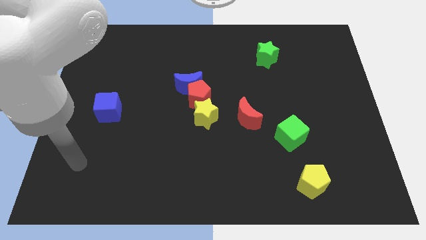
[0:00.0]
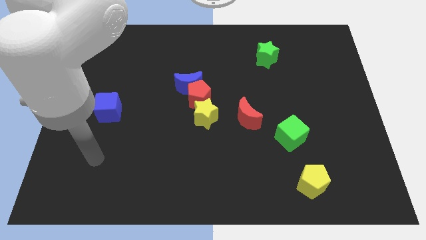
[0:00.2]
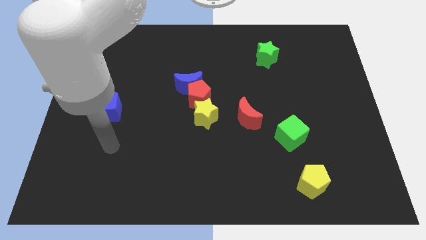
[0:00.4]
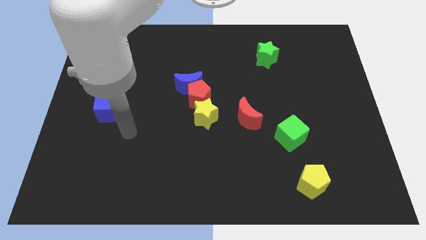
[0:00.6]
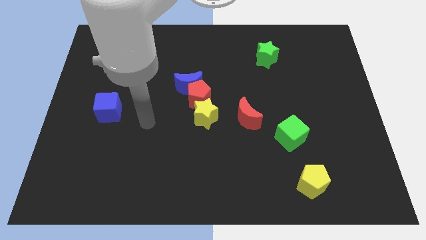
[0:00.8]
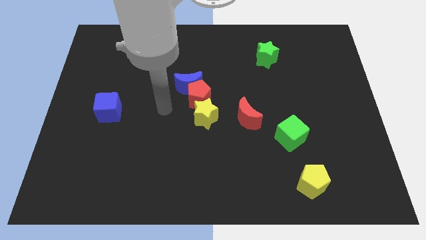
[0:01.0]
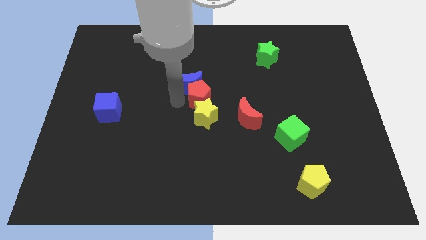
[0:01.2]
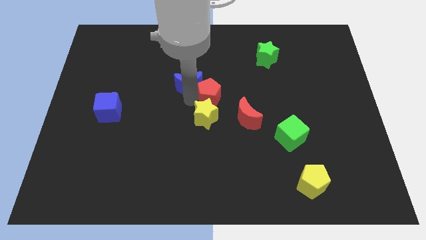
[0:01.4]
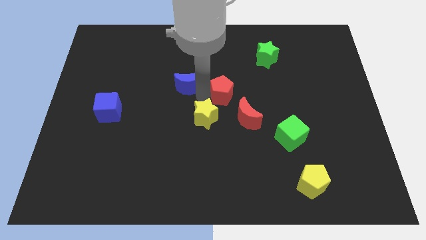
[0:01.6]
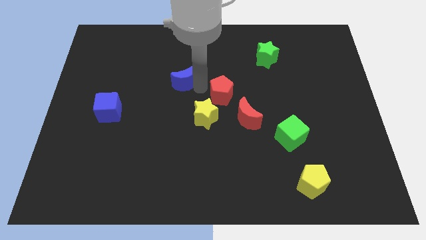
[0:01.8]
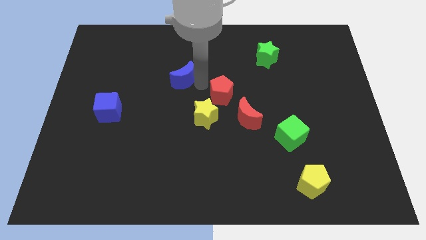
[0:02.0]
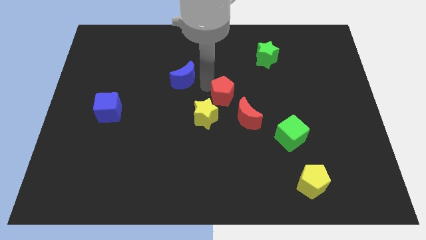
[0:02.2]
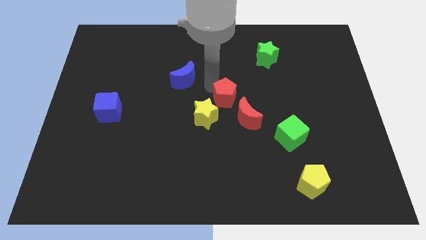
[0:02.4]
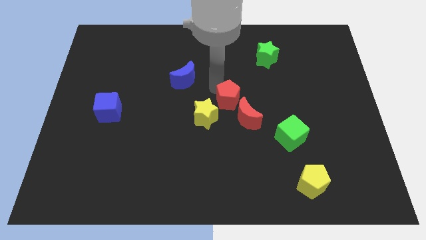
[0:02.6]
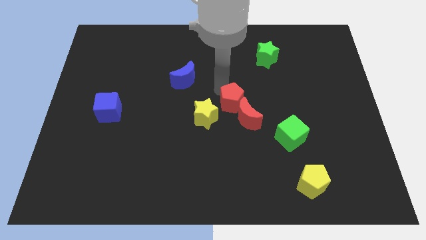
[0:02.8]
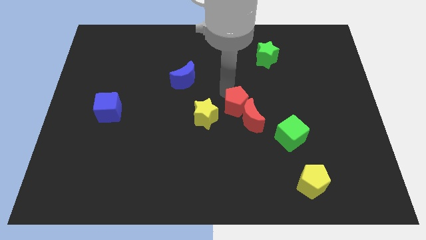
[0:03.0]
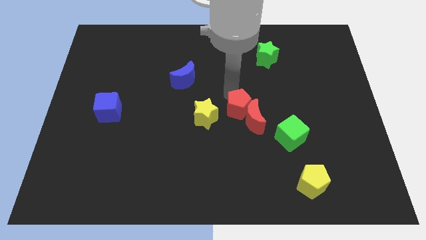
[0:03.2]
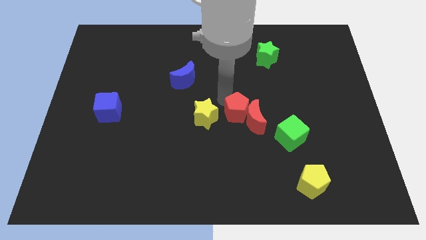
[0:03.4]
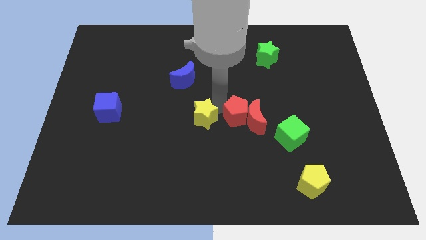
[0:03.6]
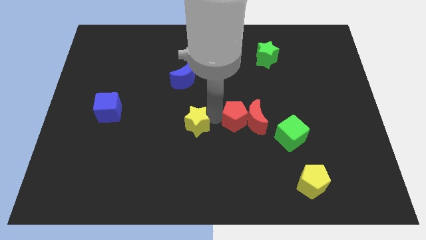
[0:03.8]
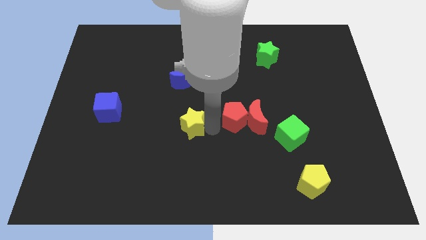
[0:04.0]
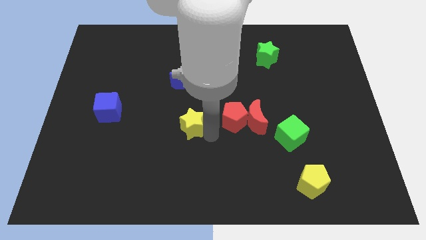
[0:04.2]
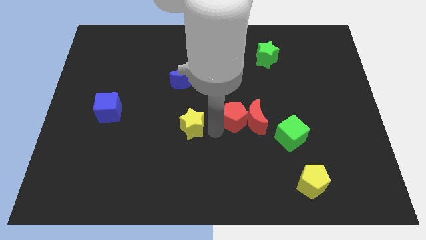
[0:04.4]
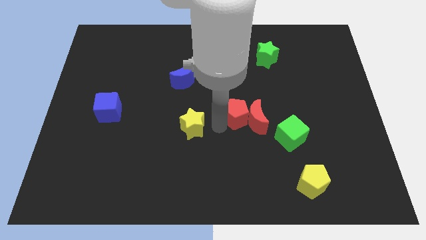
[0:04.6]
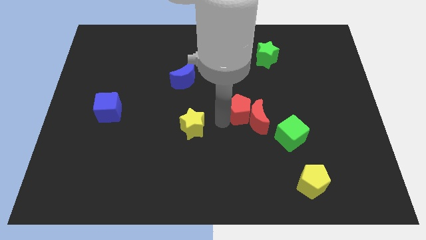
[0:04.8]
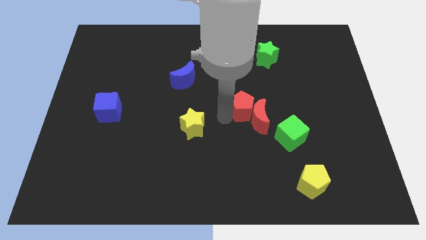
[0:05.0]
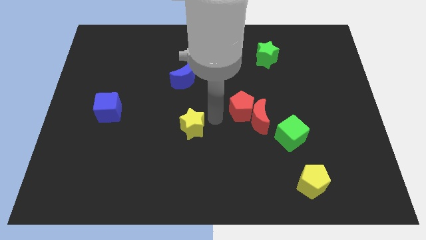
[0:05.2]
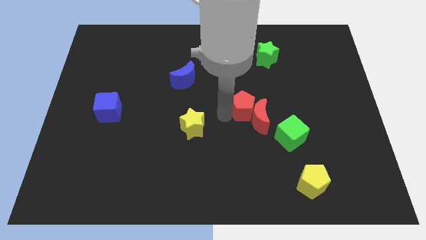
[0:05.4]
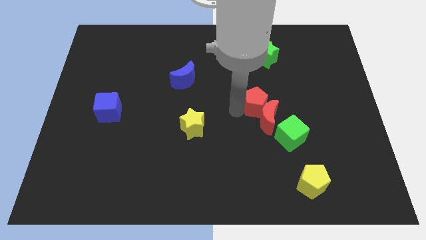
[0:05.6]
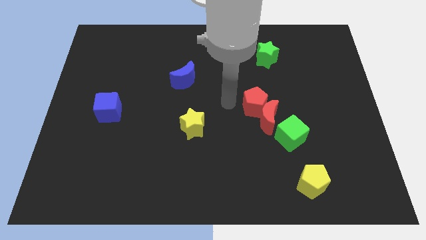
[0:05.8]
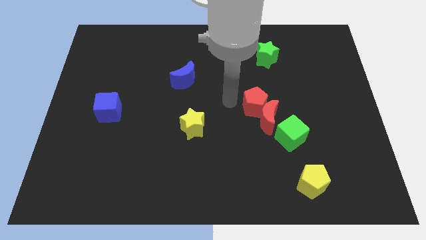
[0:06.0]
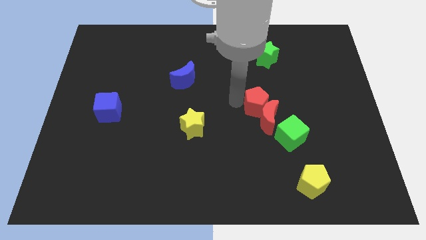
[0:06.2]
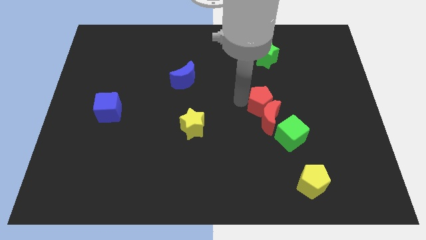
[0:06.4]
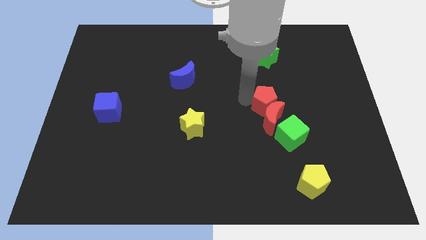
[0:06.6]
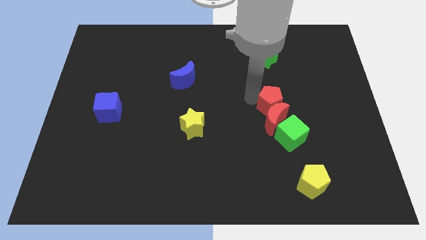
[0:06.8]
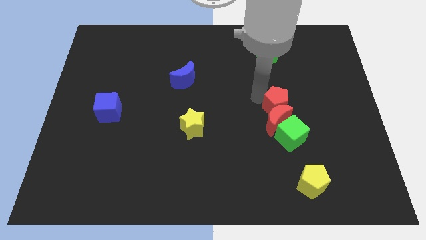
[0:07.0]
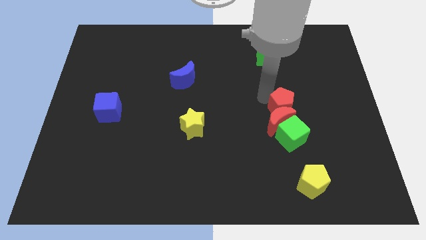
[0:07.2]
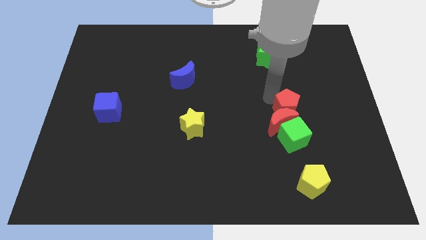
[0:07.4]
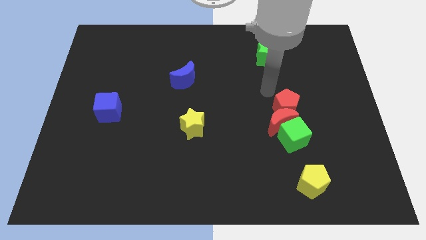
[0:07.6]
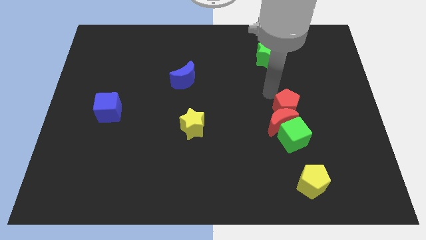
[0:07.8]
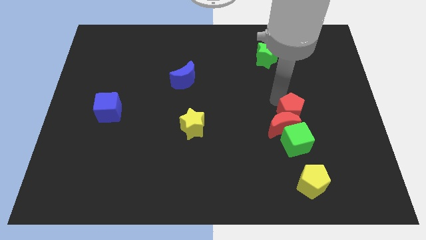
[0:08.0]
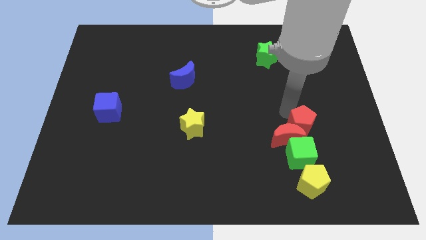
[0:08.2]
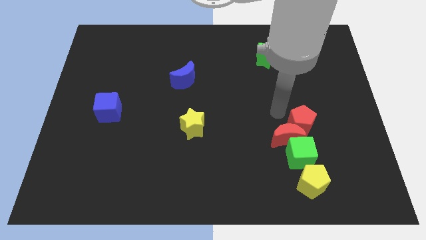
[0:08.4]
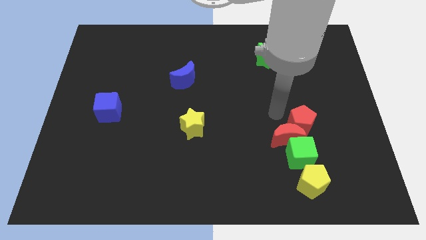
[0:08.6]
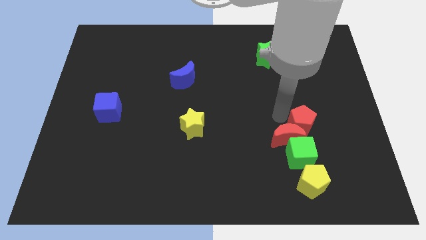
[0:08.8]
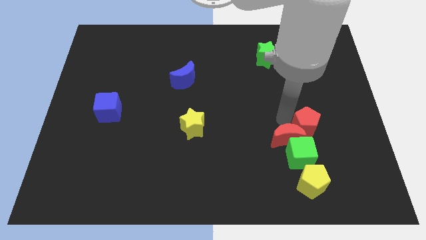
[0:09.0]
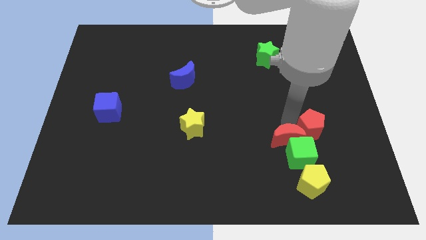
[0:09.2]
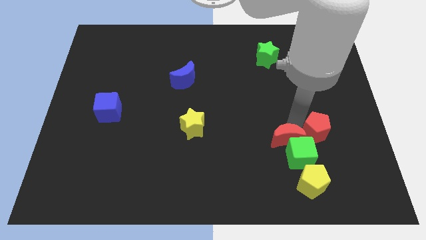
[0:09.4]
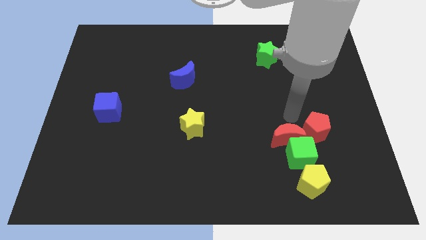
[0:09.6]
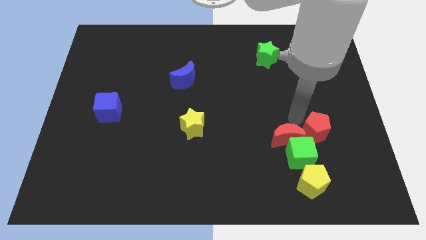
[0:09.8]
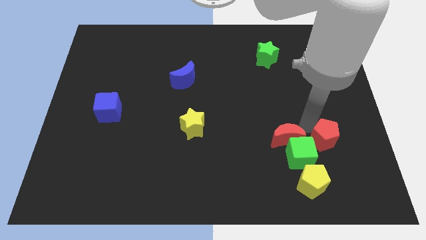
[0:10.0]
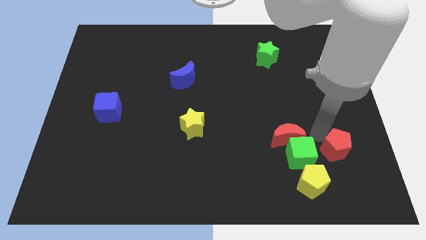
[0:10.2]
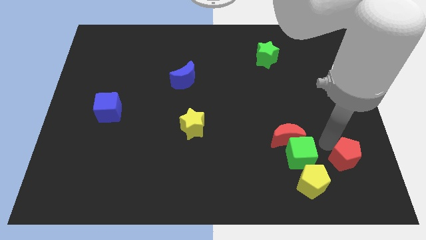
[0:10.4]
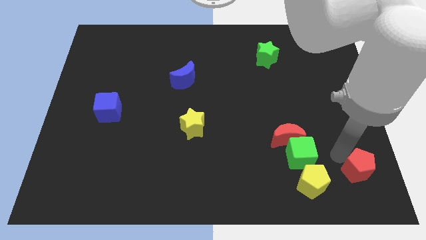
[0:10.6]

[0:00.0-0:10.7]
slide the red pentagon to the bottom right

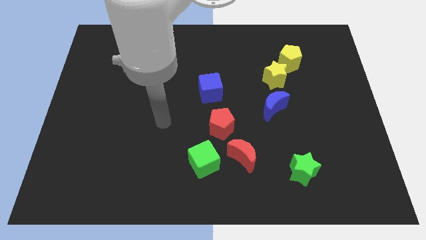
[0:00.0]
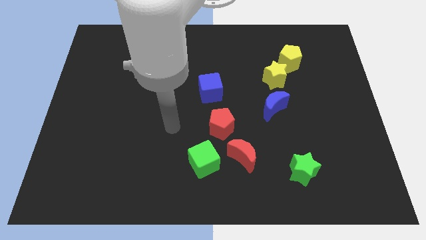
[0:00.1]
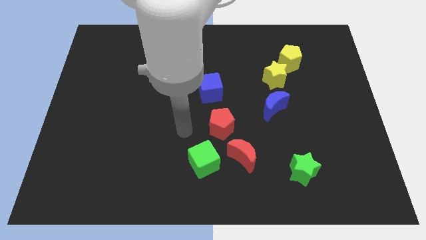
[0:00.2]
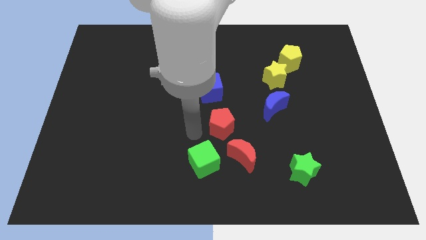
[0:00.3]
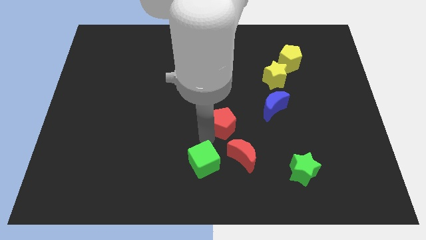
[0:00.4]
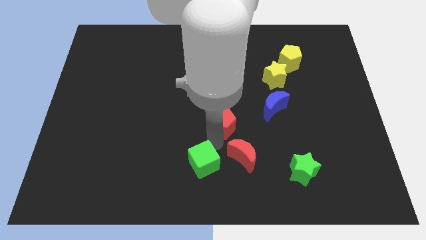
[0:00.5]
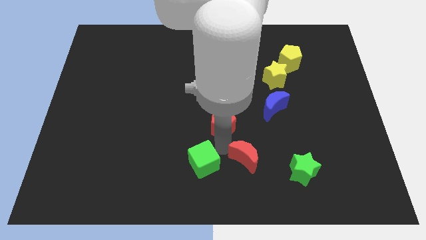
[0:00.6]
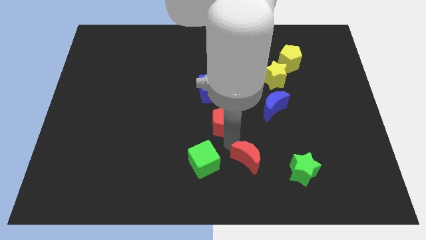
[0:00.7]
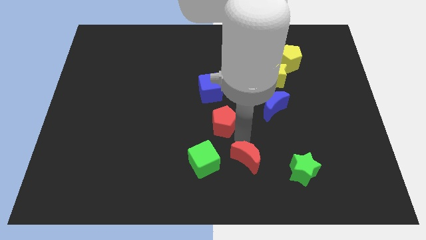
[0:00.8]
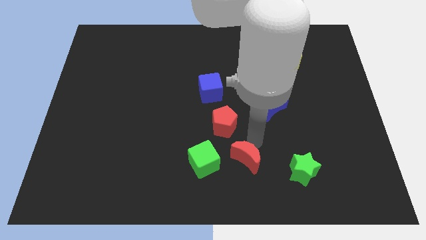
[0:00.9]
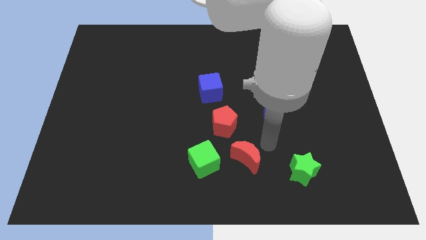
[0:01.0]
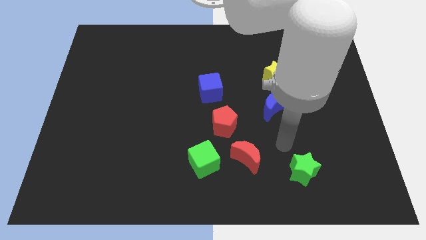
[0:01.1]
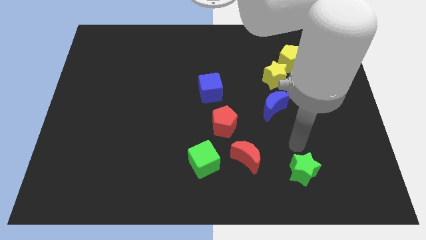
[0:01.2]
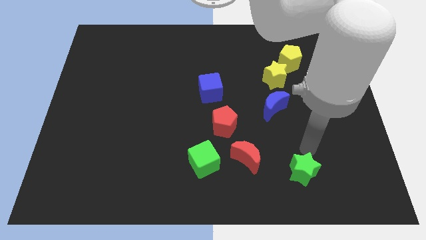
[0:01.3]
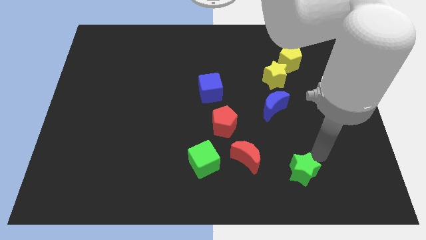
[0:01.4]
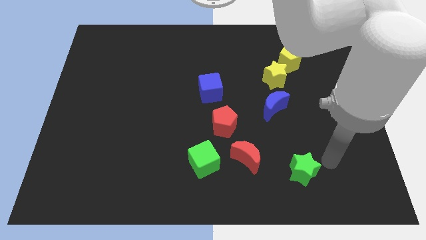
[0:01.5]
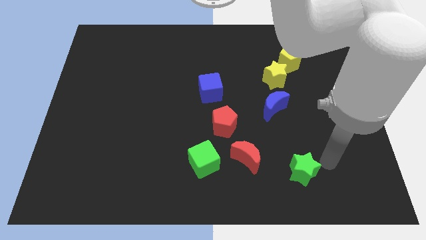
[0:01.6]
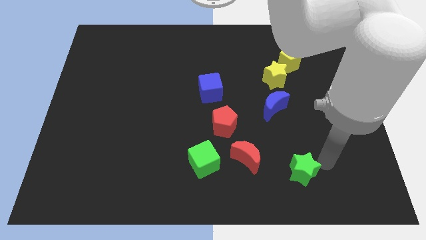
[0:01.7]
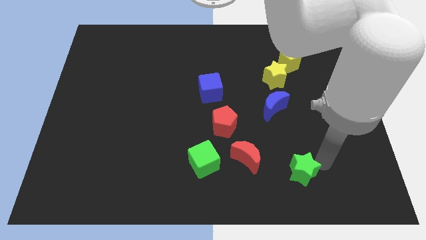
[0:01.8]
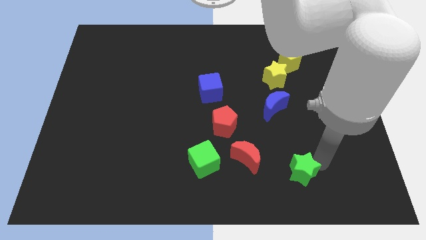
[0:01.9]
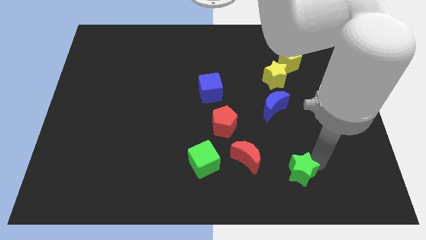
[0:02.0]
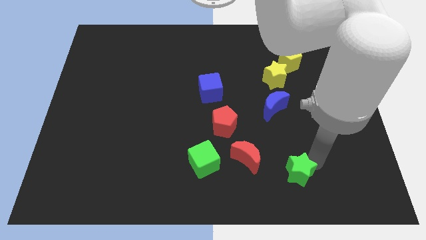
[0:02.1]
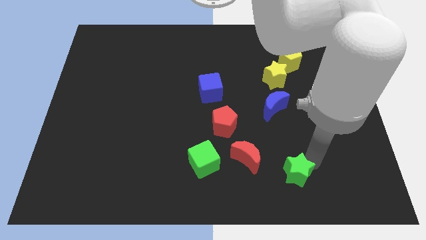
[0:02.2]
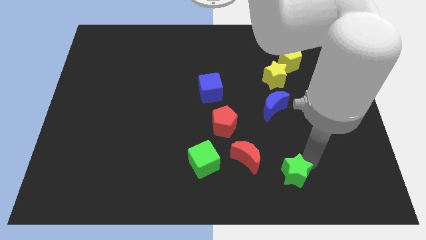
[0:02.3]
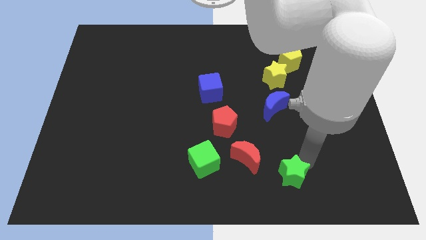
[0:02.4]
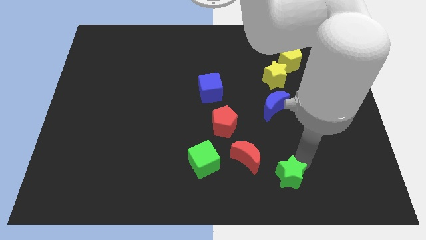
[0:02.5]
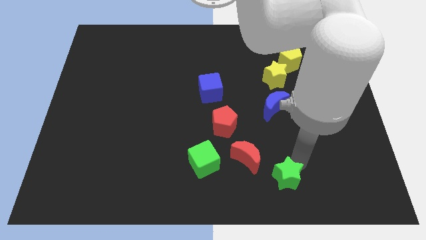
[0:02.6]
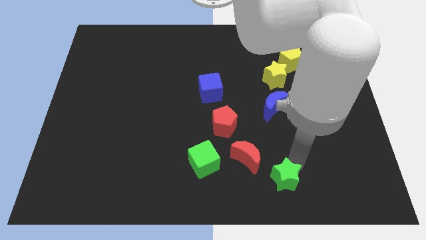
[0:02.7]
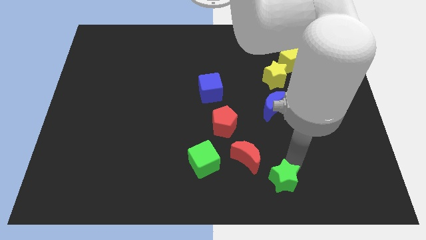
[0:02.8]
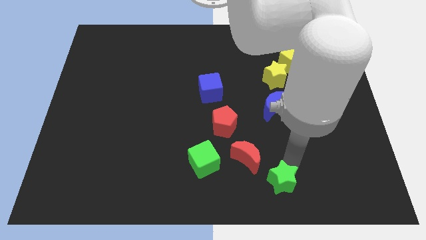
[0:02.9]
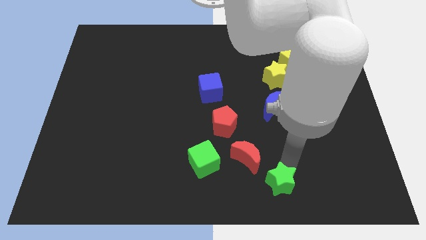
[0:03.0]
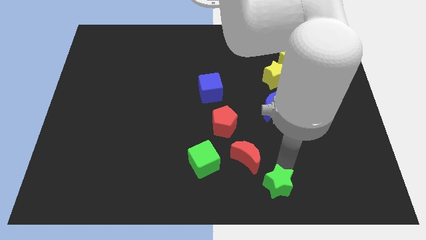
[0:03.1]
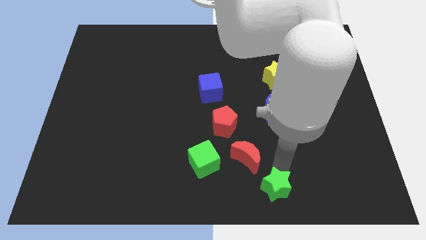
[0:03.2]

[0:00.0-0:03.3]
move the green star to the bottom
